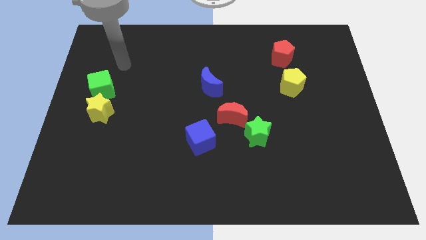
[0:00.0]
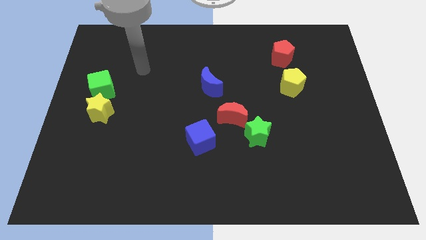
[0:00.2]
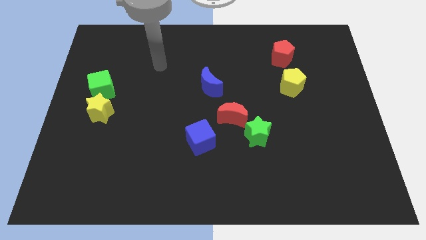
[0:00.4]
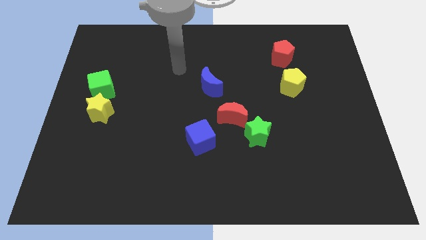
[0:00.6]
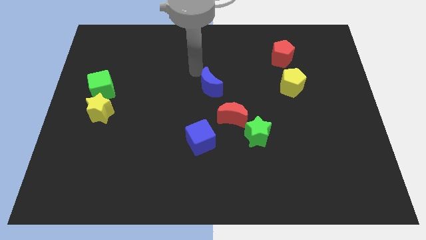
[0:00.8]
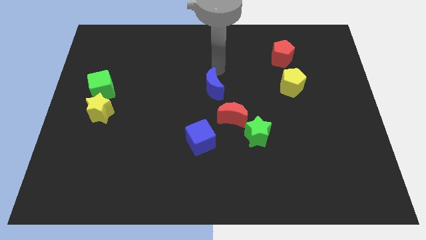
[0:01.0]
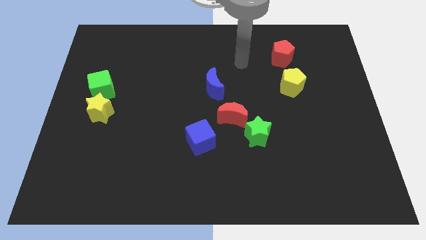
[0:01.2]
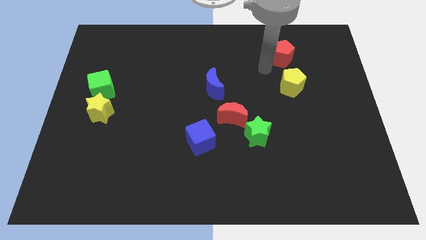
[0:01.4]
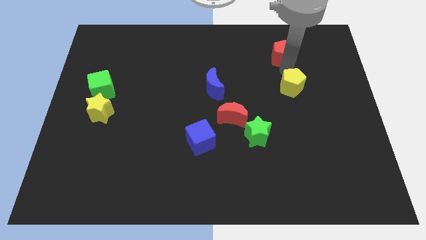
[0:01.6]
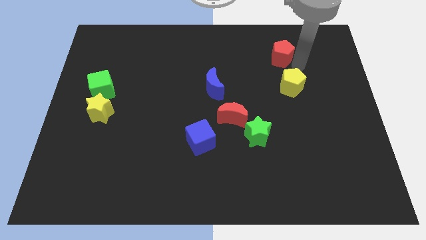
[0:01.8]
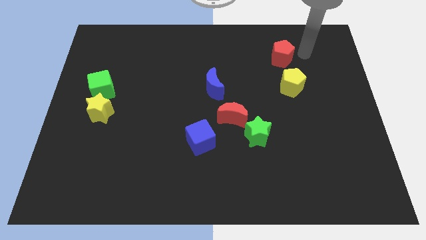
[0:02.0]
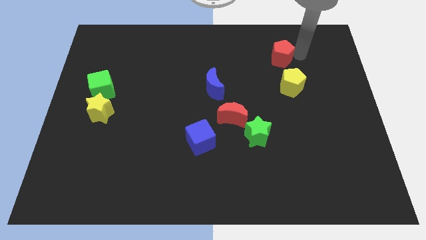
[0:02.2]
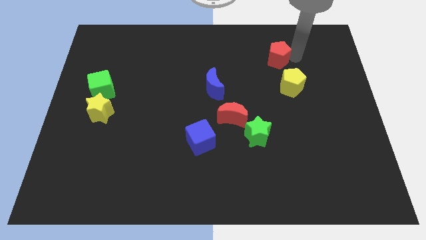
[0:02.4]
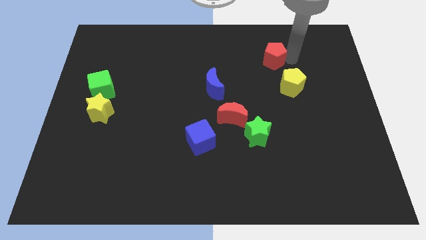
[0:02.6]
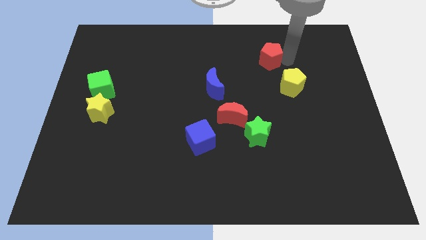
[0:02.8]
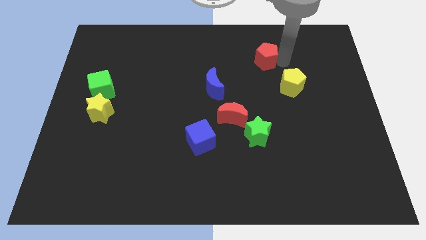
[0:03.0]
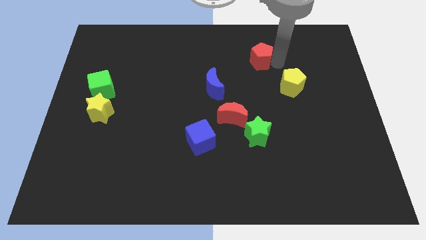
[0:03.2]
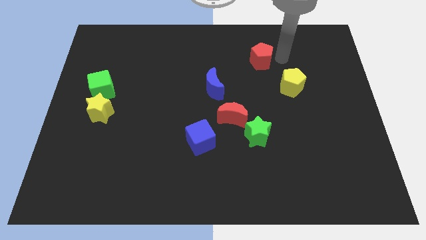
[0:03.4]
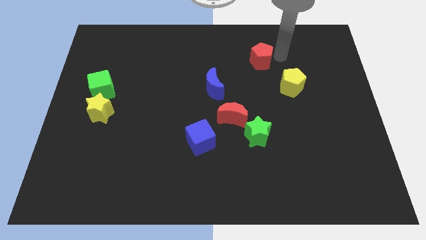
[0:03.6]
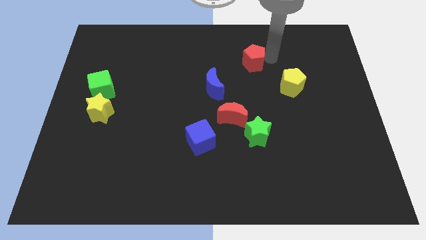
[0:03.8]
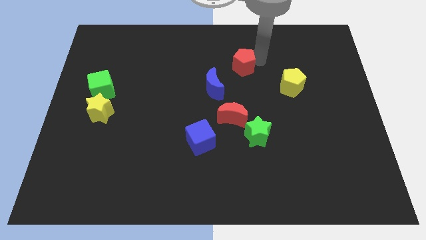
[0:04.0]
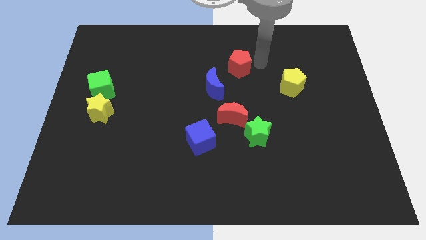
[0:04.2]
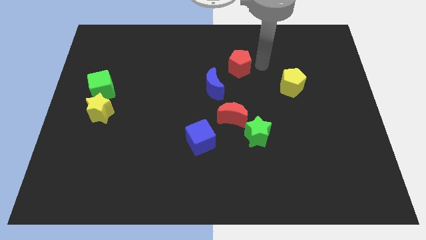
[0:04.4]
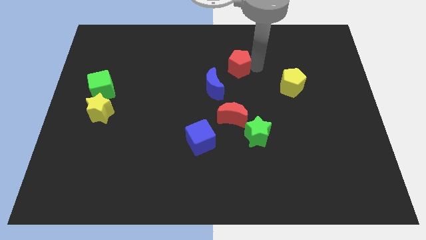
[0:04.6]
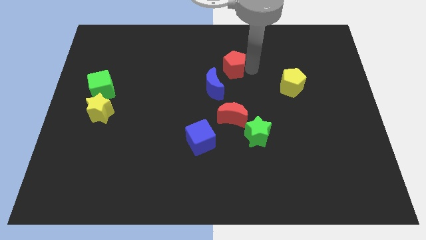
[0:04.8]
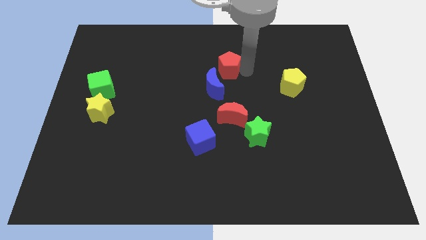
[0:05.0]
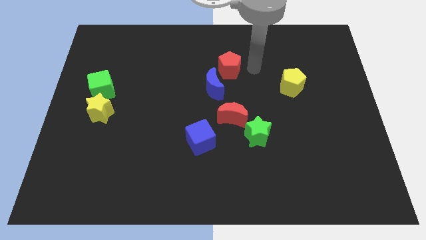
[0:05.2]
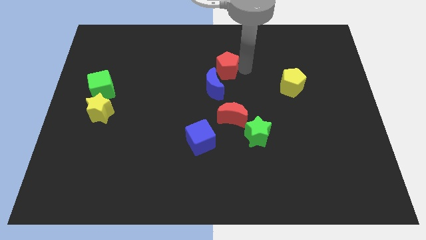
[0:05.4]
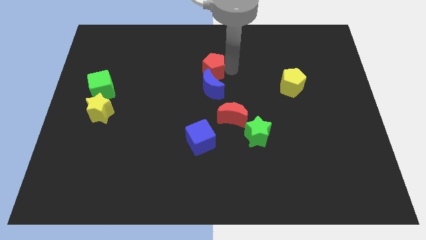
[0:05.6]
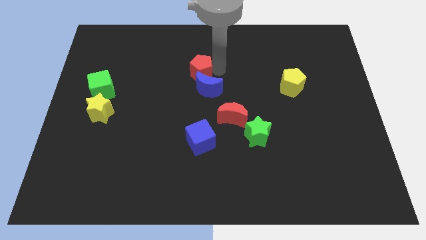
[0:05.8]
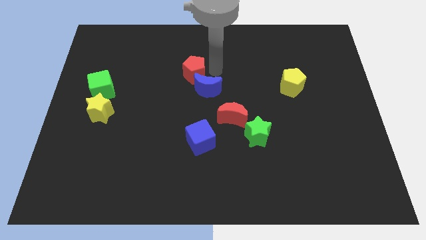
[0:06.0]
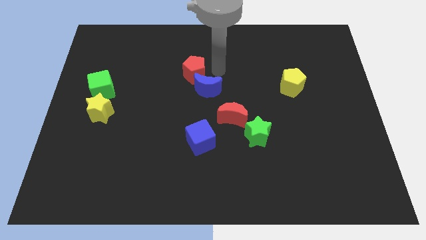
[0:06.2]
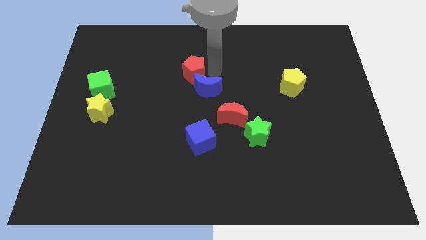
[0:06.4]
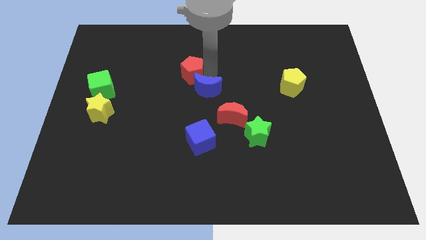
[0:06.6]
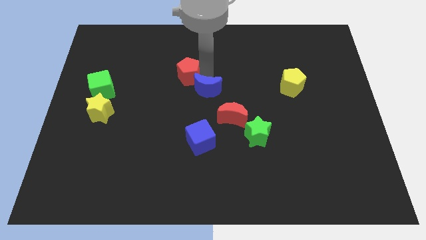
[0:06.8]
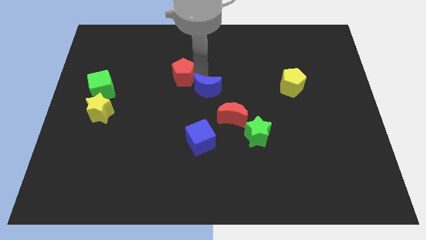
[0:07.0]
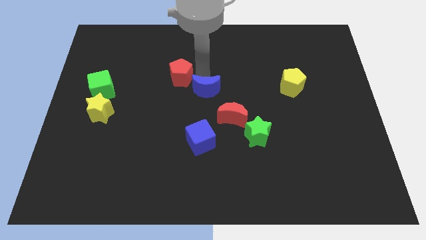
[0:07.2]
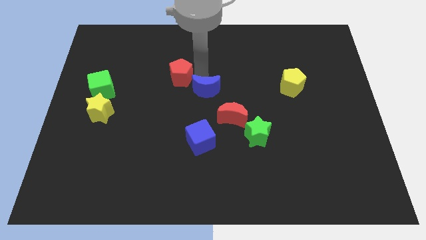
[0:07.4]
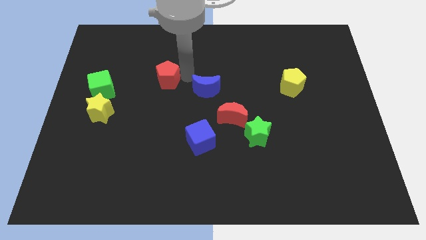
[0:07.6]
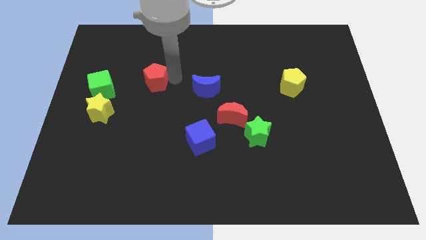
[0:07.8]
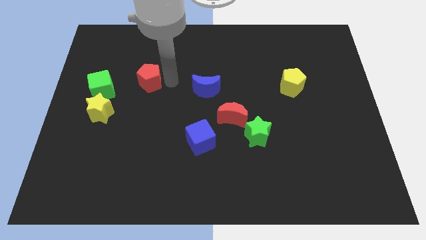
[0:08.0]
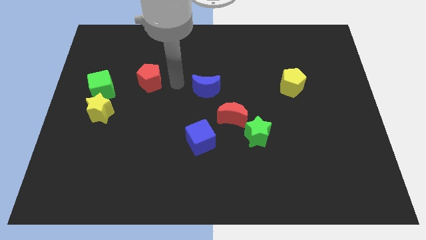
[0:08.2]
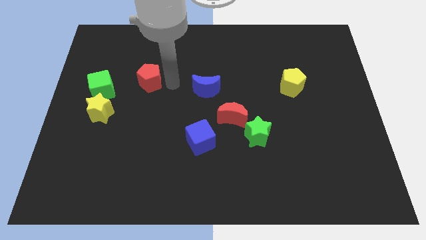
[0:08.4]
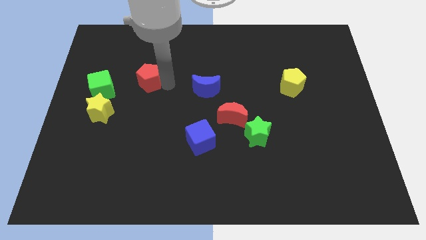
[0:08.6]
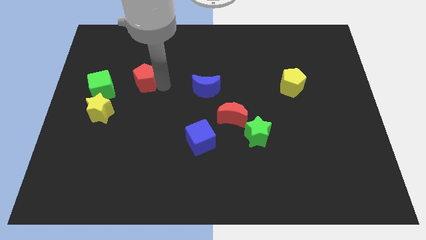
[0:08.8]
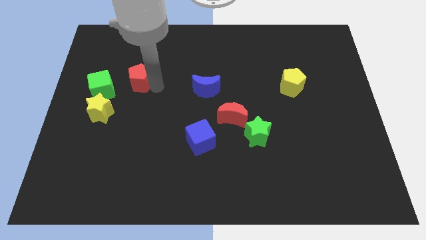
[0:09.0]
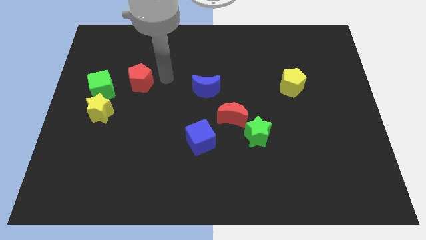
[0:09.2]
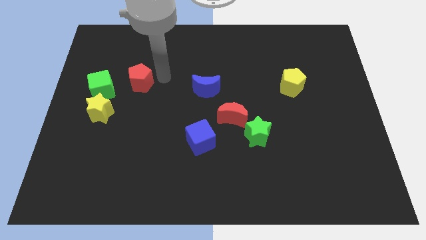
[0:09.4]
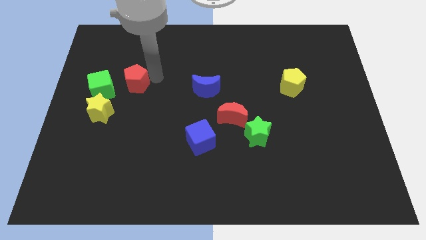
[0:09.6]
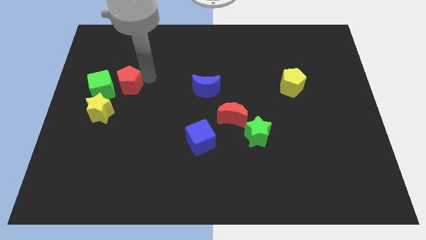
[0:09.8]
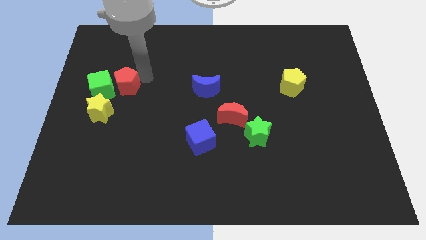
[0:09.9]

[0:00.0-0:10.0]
put the red pentagon next to the green cube

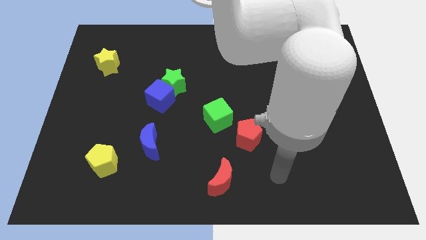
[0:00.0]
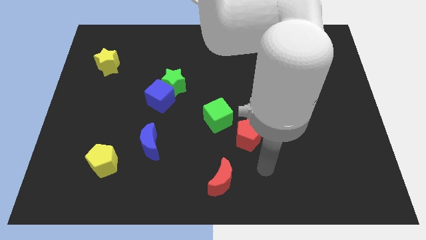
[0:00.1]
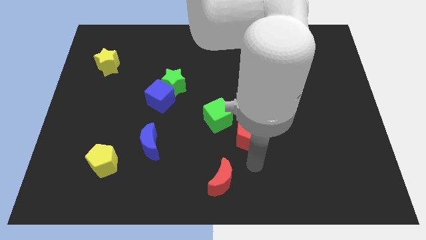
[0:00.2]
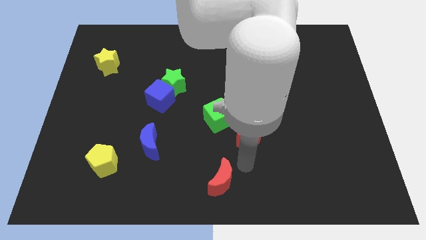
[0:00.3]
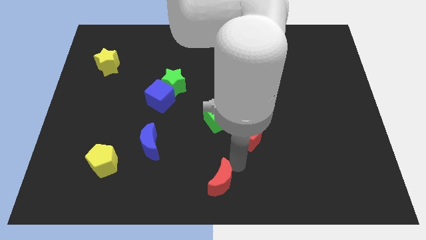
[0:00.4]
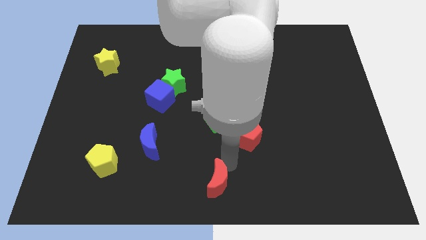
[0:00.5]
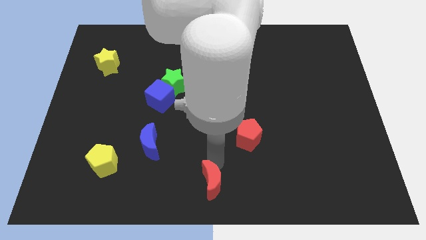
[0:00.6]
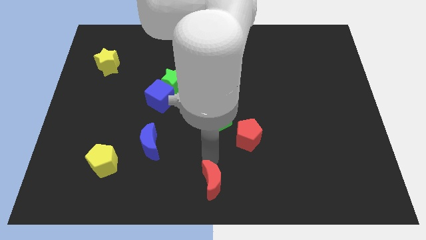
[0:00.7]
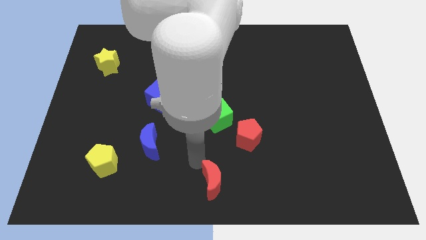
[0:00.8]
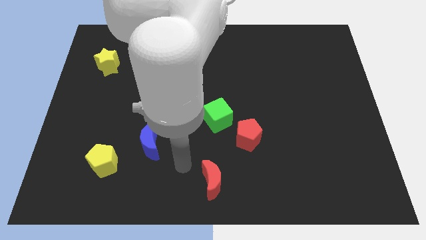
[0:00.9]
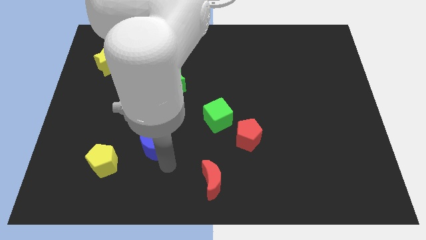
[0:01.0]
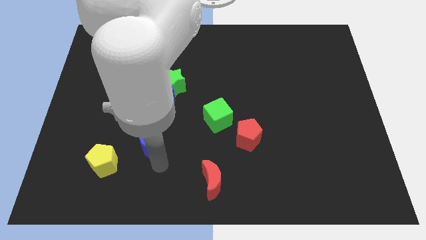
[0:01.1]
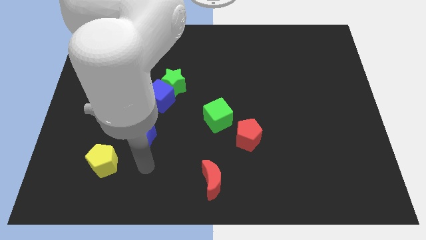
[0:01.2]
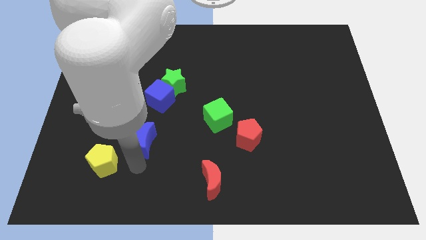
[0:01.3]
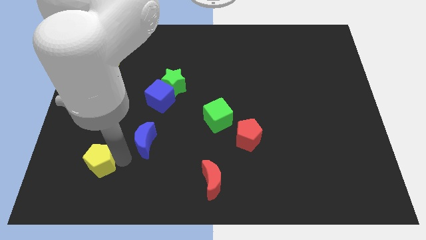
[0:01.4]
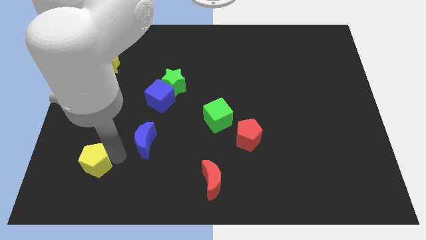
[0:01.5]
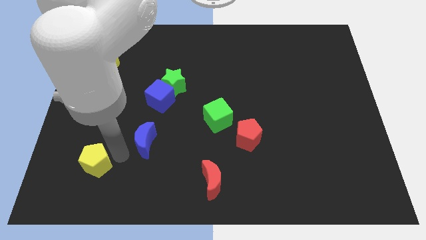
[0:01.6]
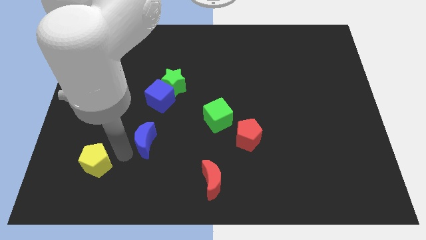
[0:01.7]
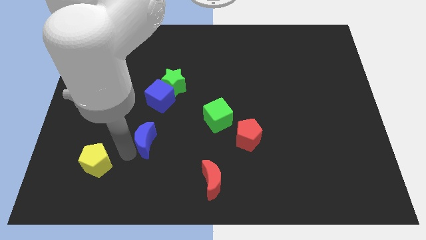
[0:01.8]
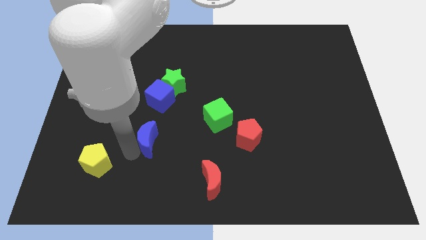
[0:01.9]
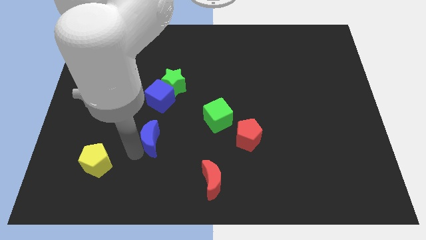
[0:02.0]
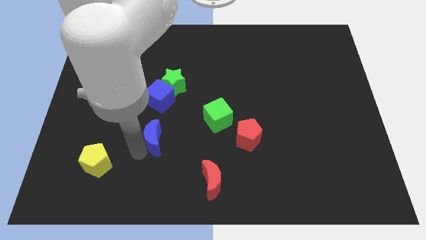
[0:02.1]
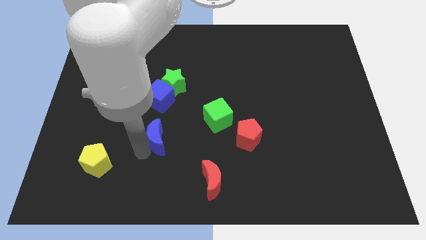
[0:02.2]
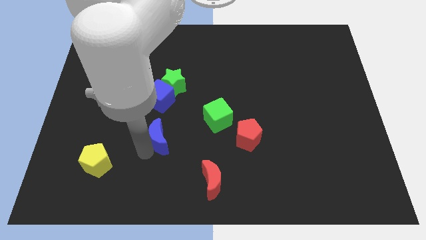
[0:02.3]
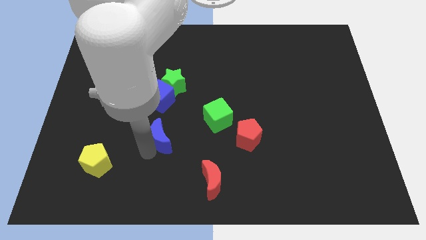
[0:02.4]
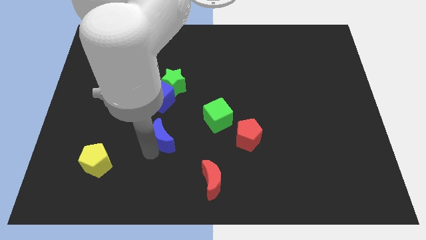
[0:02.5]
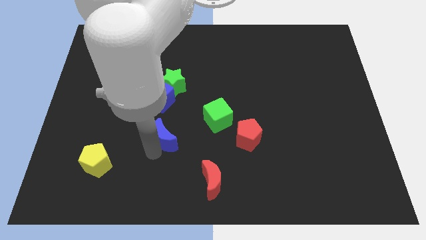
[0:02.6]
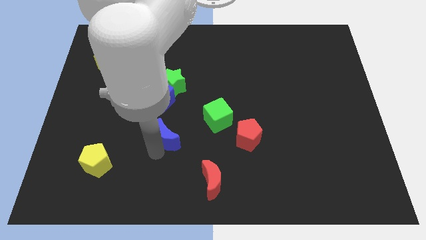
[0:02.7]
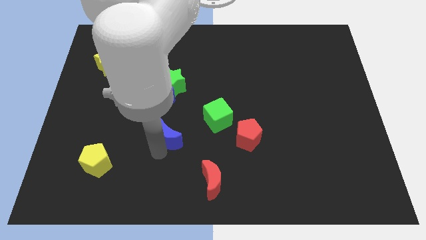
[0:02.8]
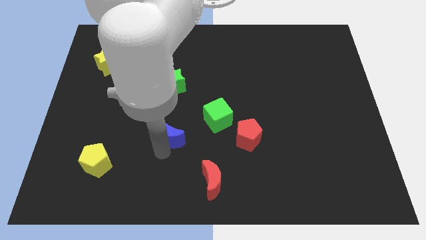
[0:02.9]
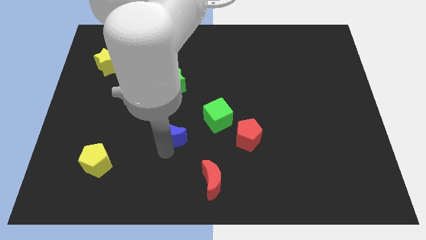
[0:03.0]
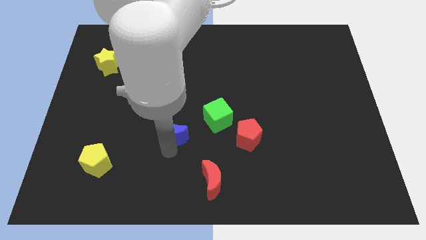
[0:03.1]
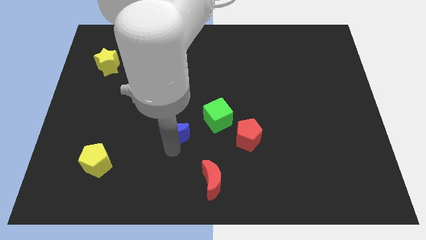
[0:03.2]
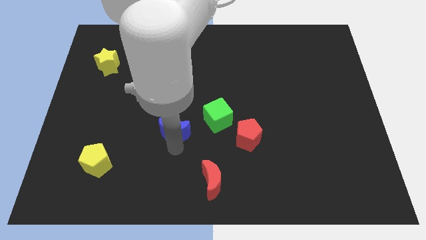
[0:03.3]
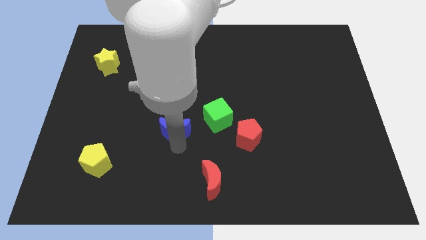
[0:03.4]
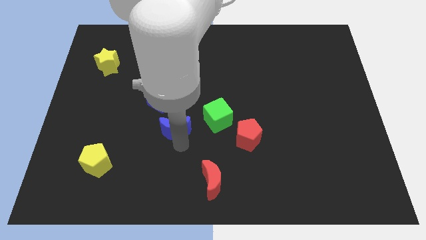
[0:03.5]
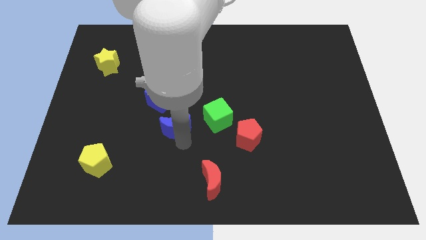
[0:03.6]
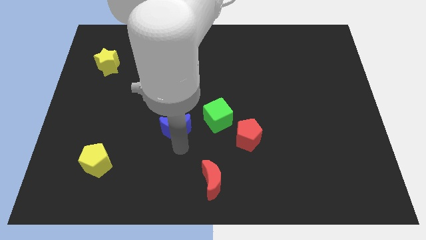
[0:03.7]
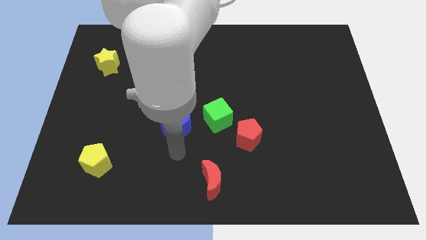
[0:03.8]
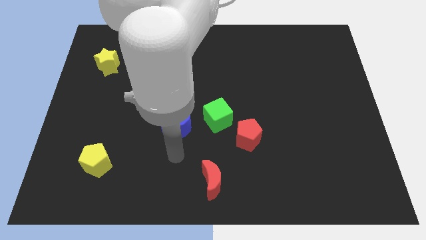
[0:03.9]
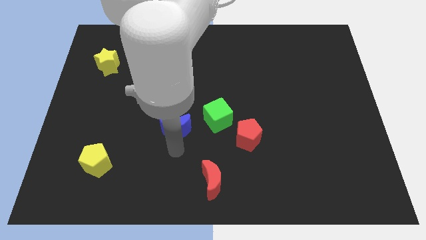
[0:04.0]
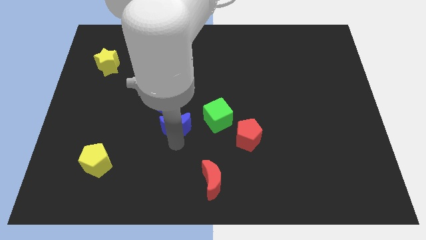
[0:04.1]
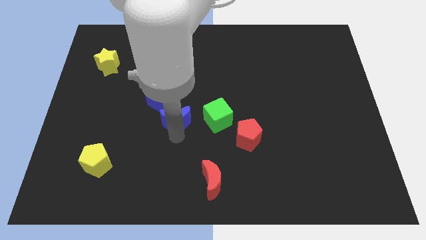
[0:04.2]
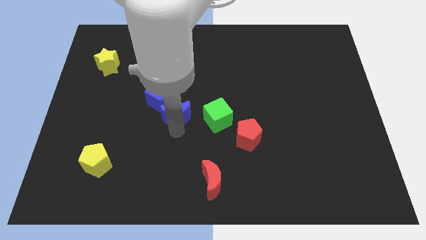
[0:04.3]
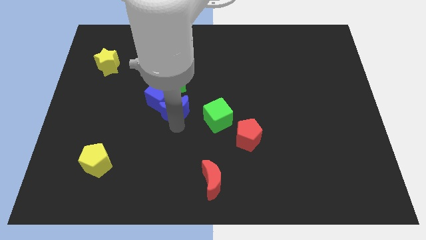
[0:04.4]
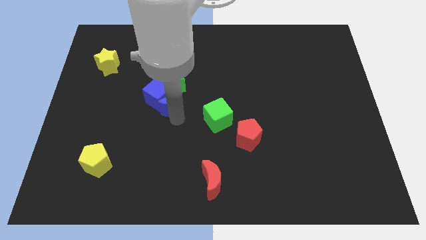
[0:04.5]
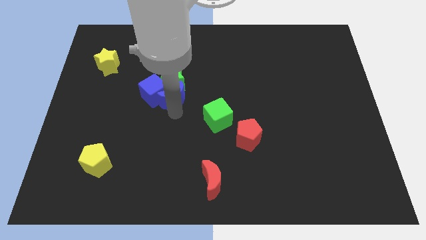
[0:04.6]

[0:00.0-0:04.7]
push the blue moon close to the green star
